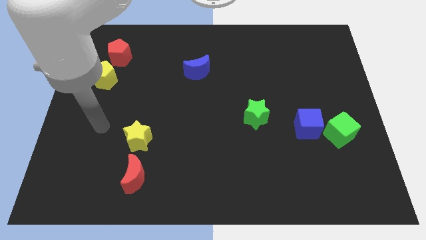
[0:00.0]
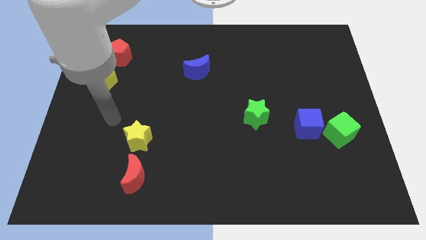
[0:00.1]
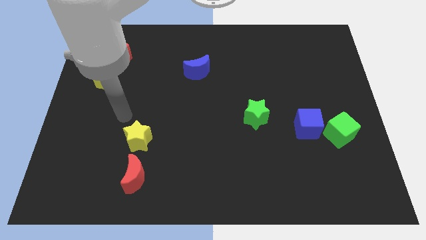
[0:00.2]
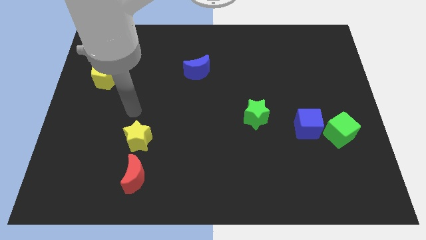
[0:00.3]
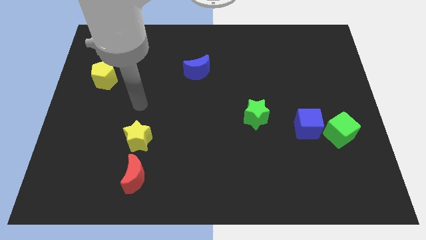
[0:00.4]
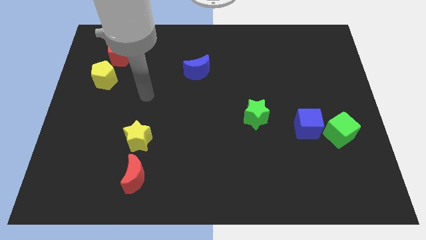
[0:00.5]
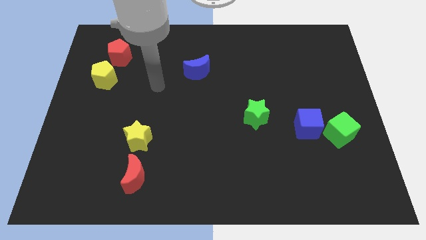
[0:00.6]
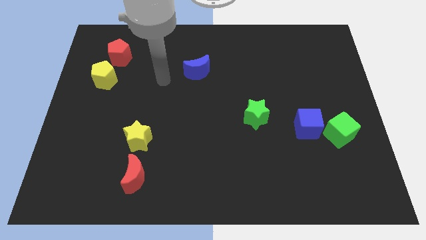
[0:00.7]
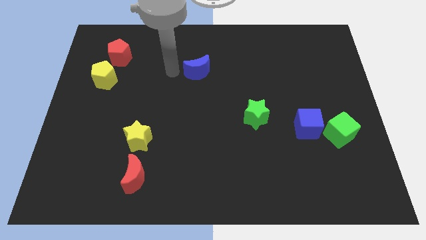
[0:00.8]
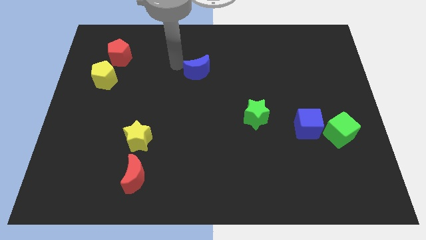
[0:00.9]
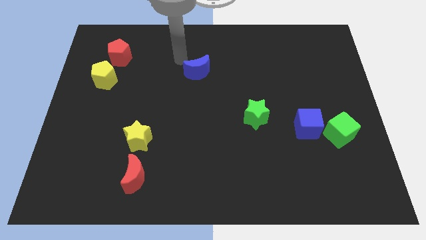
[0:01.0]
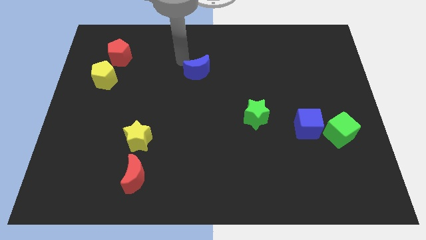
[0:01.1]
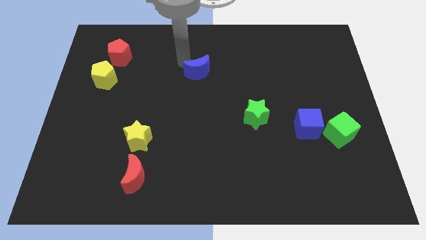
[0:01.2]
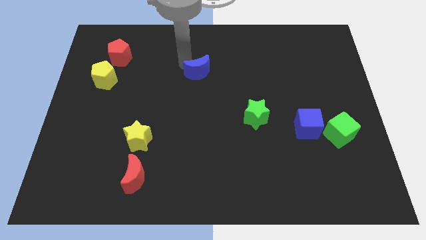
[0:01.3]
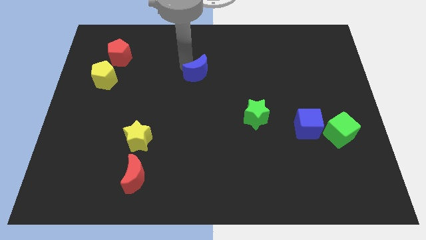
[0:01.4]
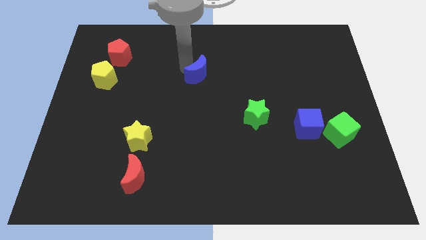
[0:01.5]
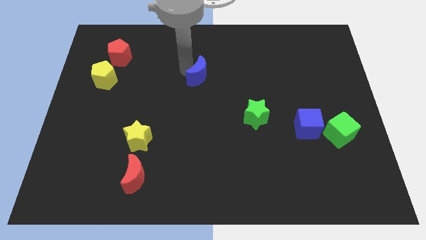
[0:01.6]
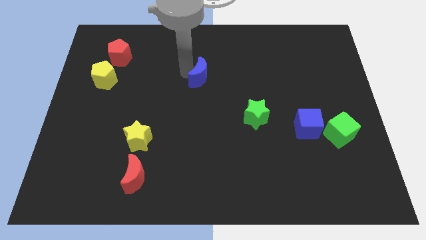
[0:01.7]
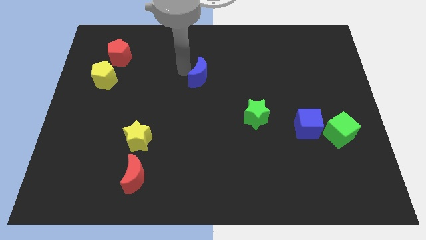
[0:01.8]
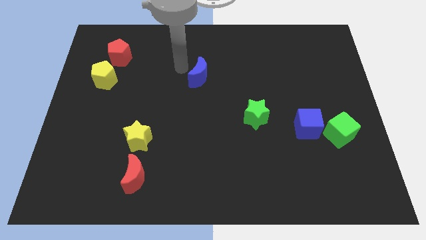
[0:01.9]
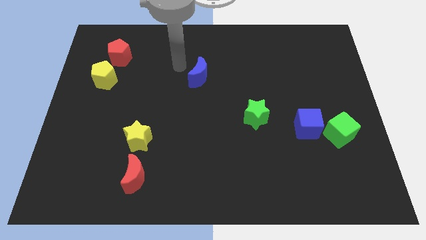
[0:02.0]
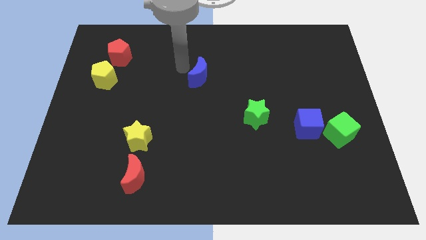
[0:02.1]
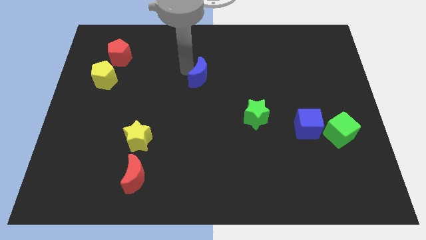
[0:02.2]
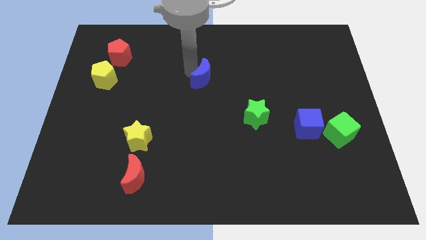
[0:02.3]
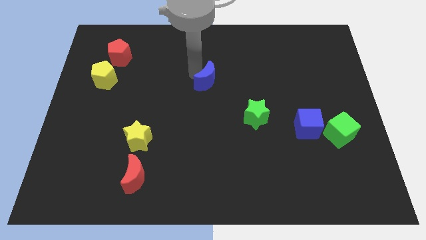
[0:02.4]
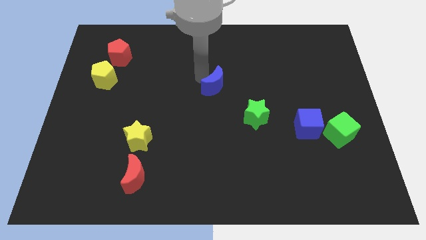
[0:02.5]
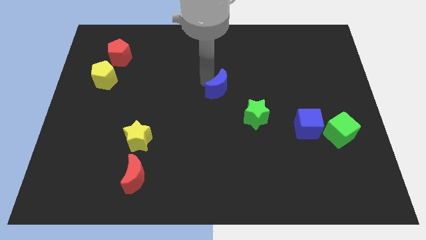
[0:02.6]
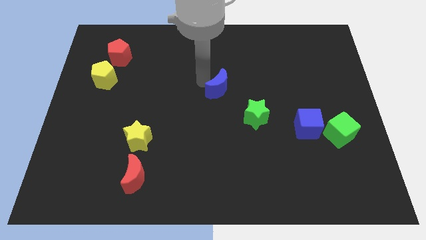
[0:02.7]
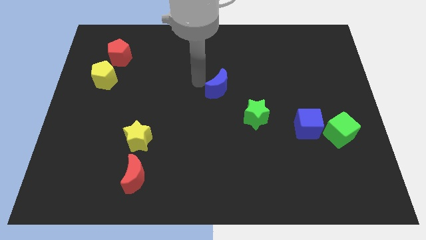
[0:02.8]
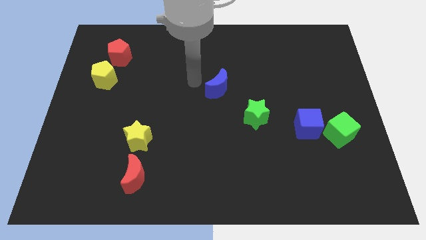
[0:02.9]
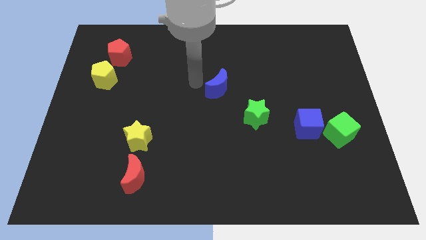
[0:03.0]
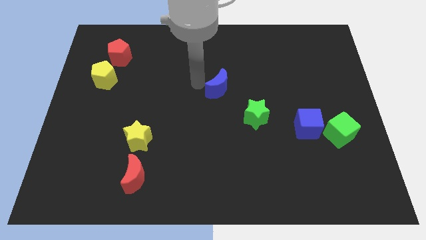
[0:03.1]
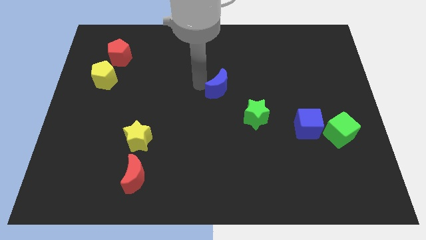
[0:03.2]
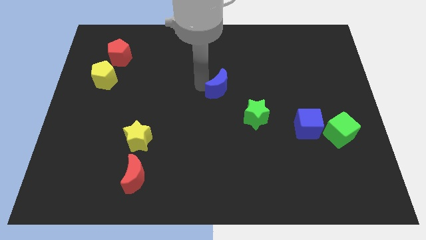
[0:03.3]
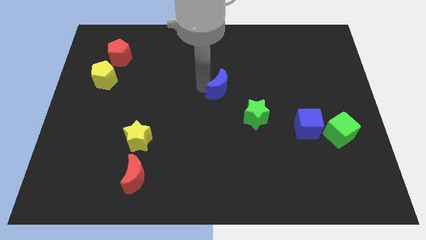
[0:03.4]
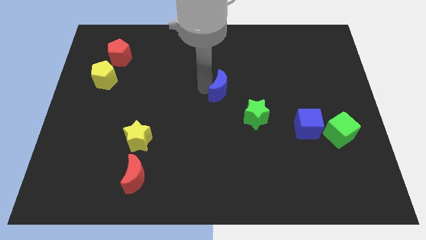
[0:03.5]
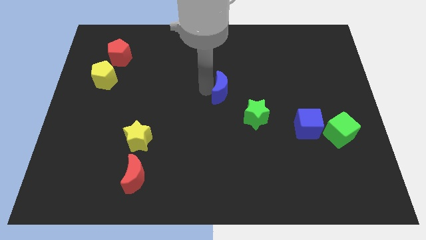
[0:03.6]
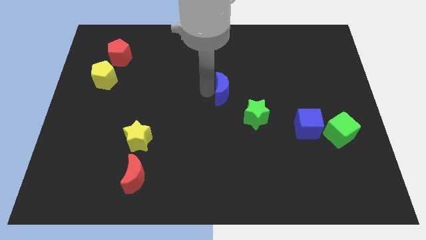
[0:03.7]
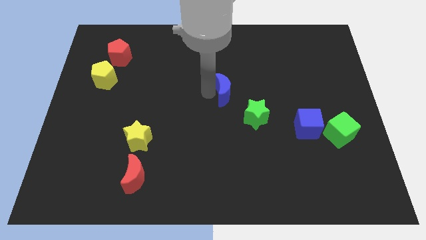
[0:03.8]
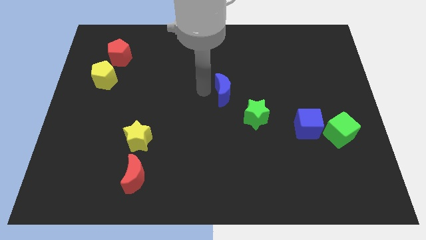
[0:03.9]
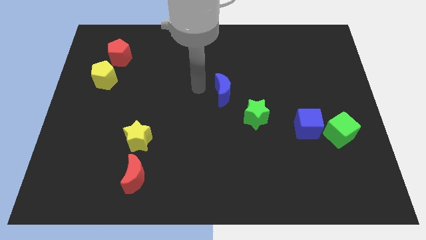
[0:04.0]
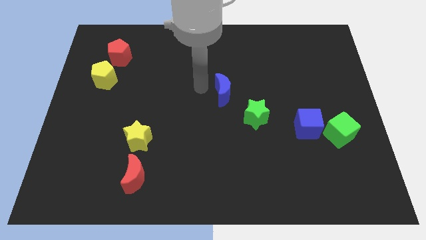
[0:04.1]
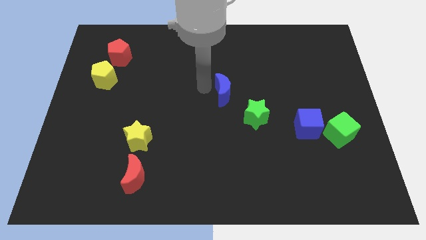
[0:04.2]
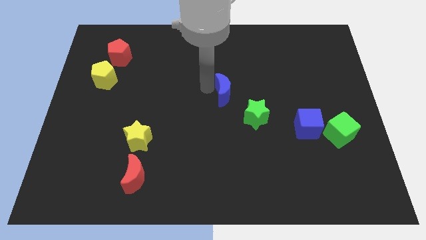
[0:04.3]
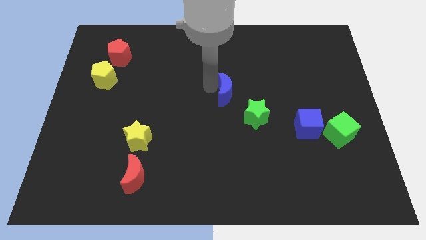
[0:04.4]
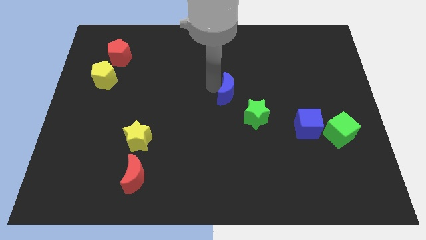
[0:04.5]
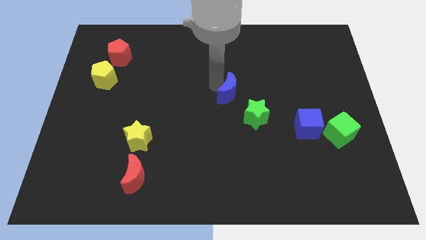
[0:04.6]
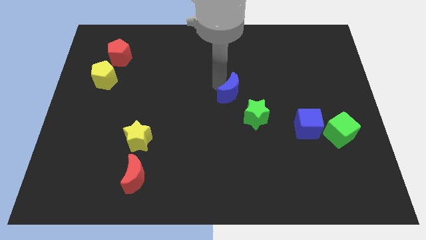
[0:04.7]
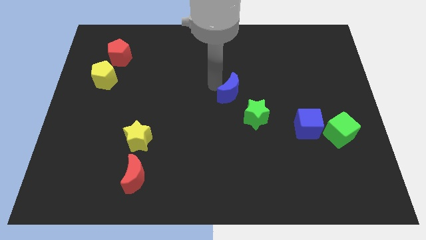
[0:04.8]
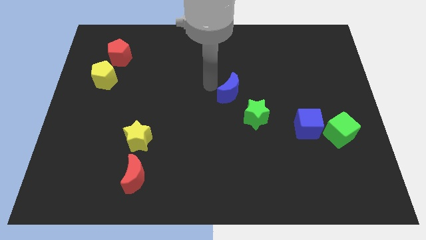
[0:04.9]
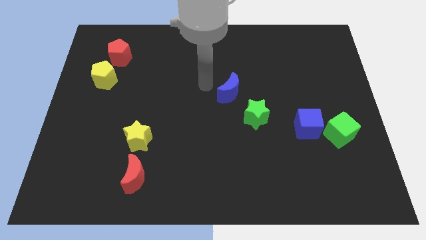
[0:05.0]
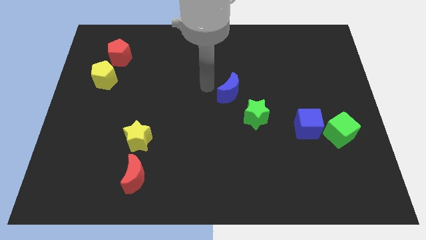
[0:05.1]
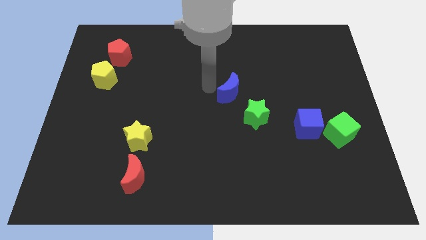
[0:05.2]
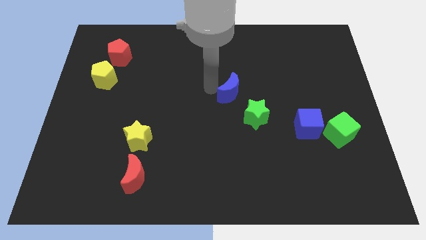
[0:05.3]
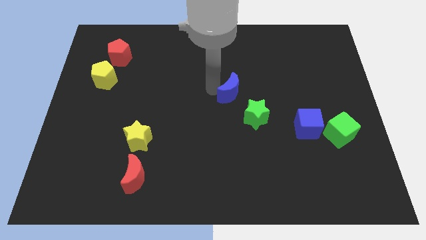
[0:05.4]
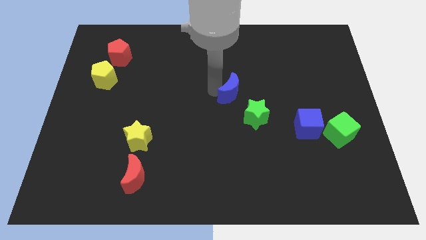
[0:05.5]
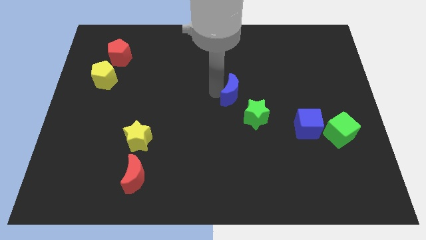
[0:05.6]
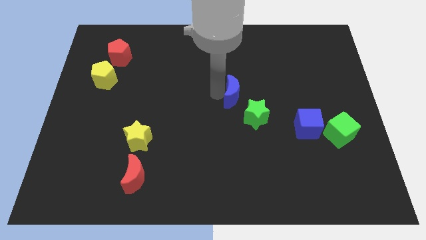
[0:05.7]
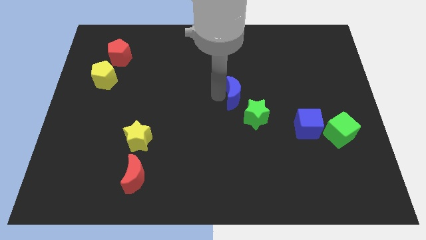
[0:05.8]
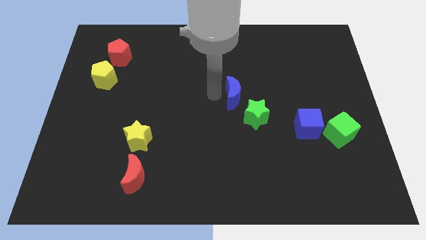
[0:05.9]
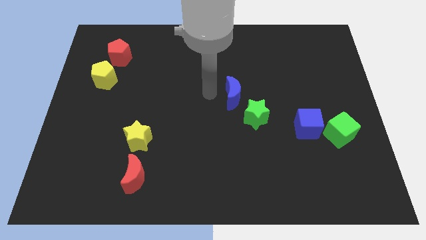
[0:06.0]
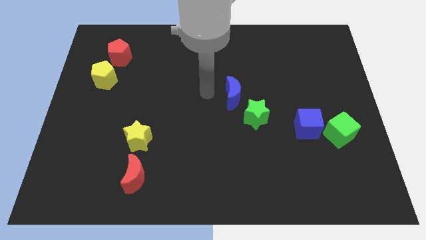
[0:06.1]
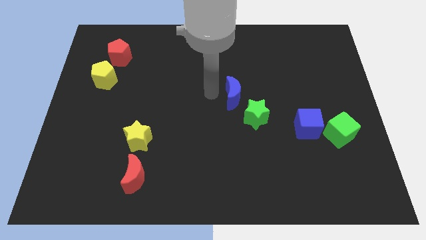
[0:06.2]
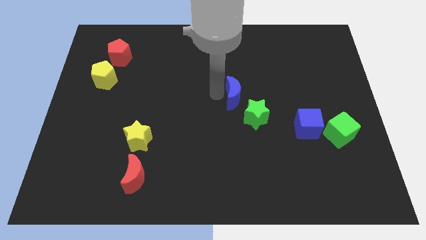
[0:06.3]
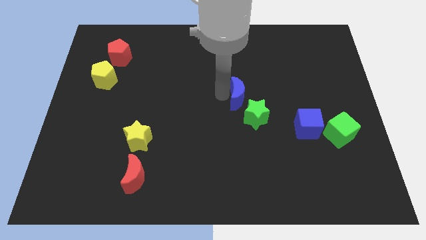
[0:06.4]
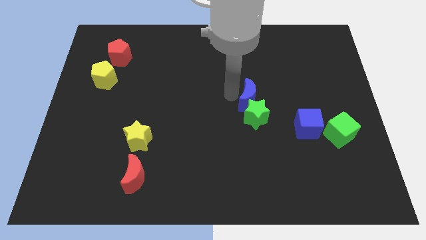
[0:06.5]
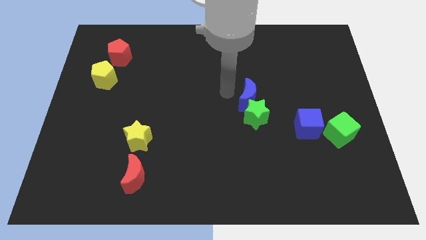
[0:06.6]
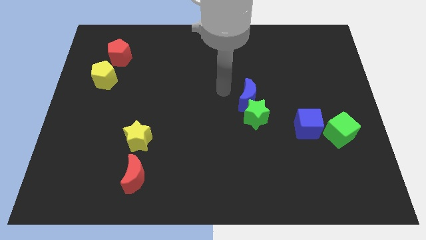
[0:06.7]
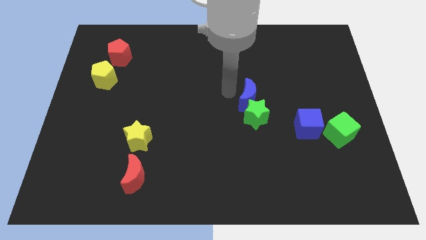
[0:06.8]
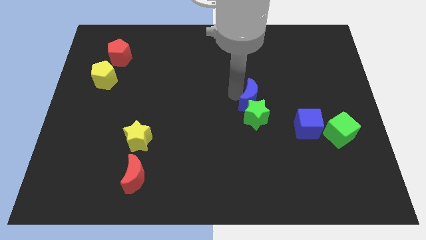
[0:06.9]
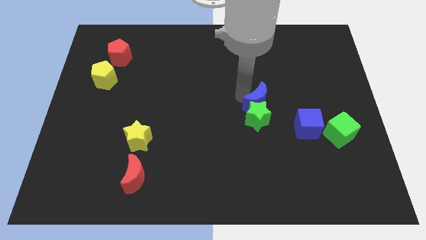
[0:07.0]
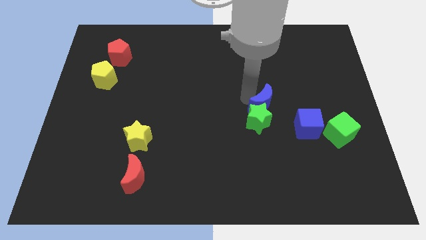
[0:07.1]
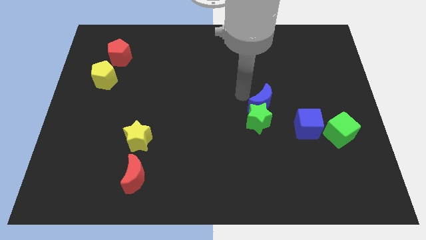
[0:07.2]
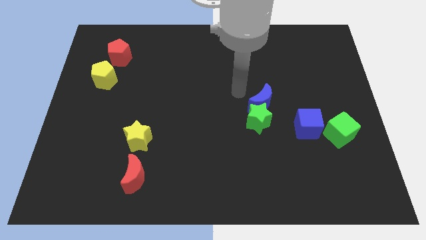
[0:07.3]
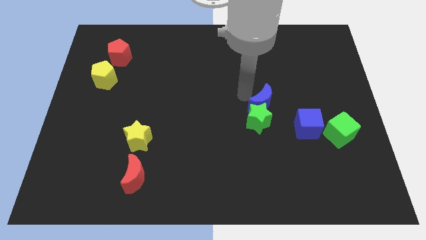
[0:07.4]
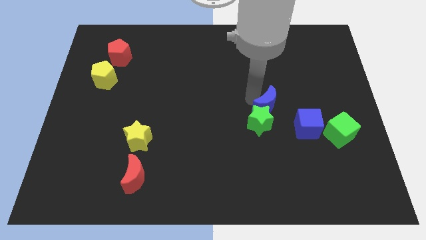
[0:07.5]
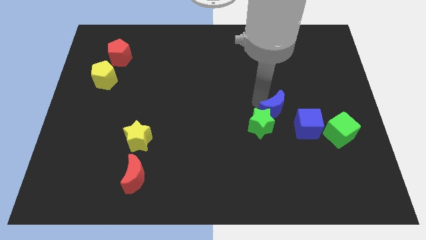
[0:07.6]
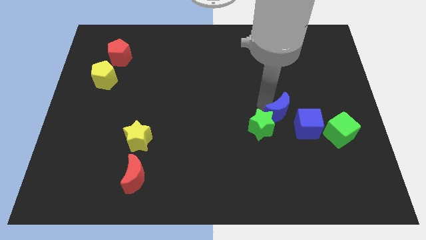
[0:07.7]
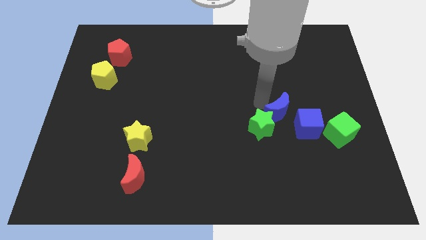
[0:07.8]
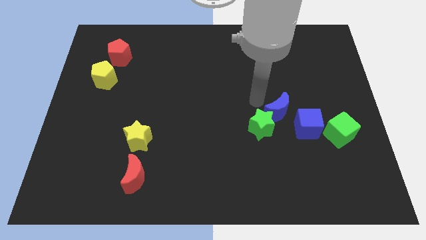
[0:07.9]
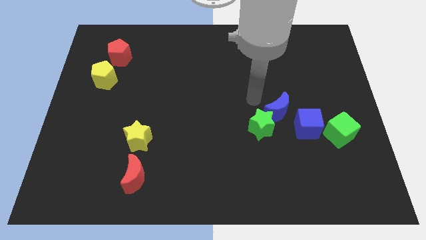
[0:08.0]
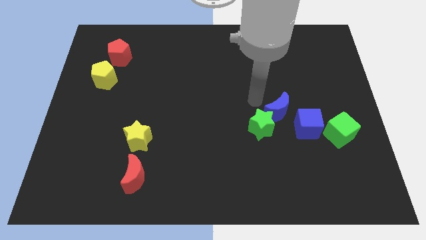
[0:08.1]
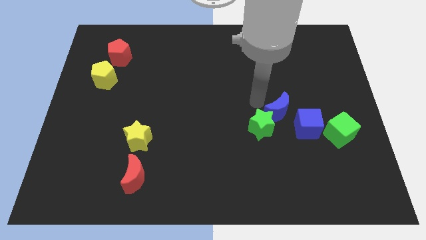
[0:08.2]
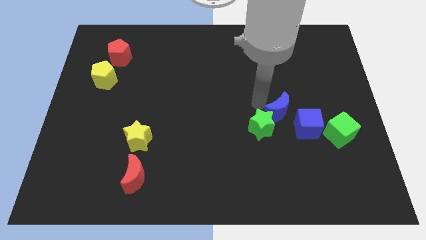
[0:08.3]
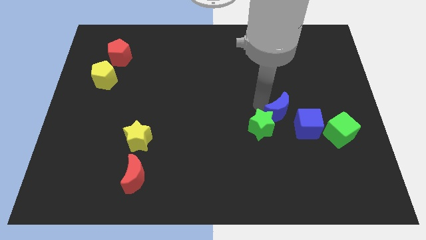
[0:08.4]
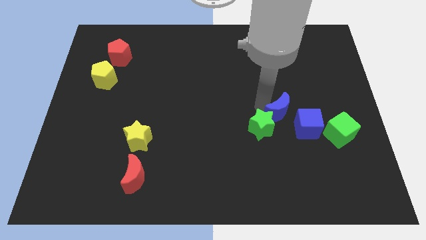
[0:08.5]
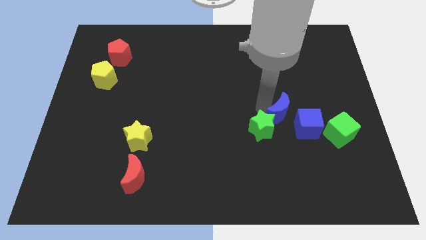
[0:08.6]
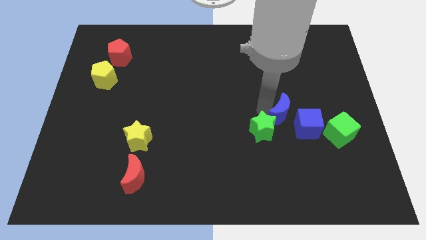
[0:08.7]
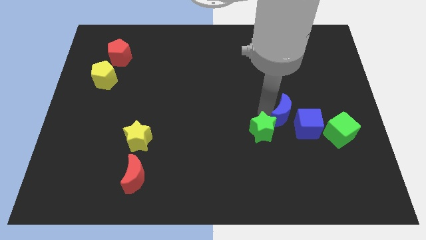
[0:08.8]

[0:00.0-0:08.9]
put the blue moon close to the blue cube
